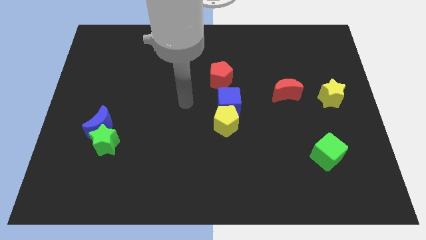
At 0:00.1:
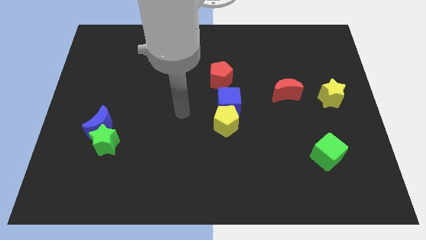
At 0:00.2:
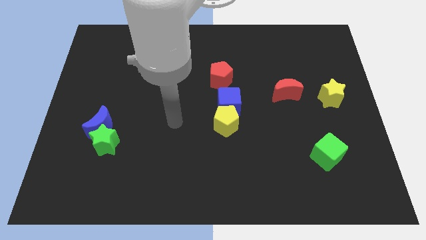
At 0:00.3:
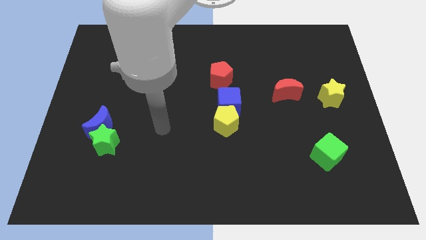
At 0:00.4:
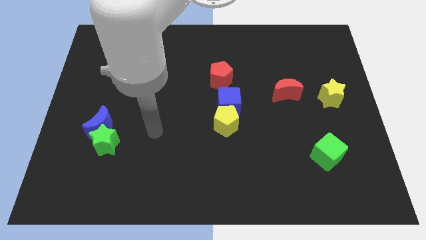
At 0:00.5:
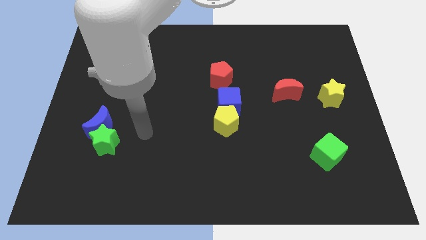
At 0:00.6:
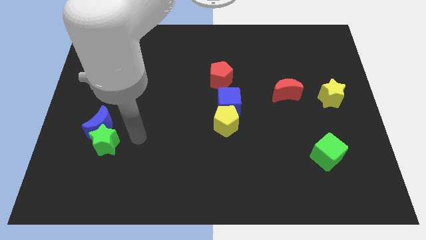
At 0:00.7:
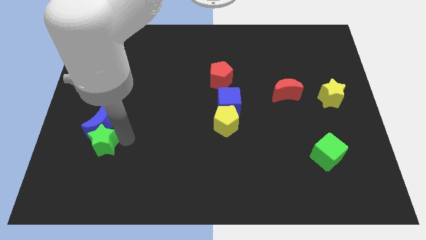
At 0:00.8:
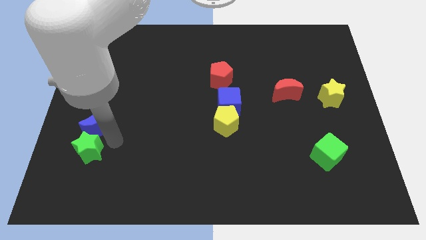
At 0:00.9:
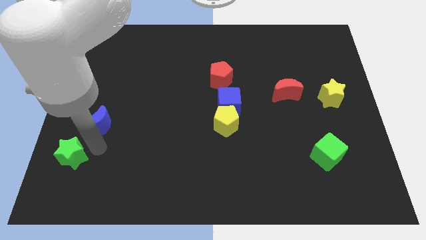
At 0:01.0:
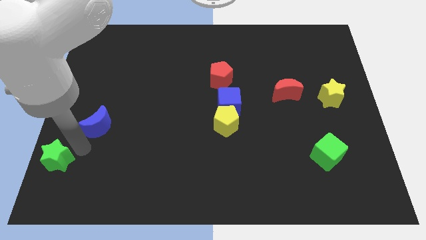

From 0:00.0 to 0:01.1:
move the blue moon away from the green star

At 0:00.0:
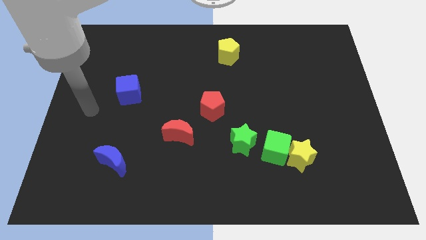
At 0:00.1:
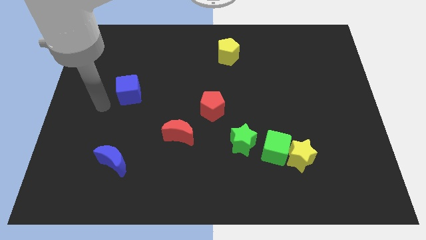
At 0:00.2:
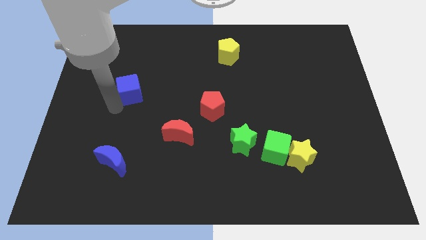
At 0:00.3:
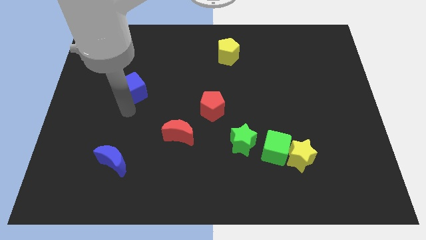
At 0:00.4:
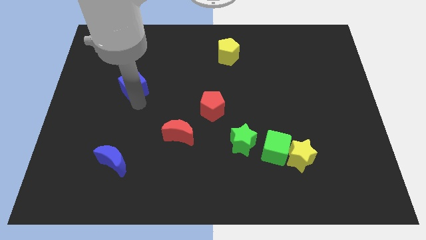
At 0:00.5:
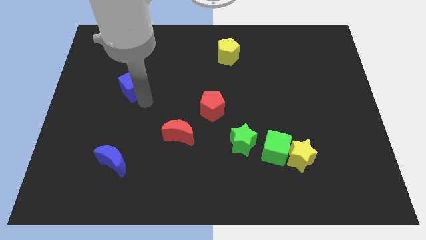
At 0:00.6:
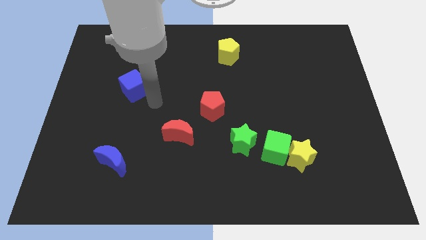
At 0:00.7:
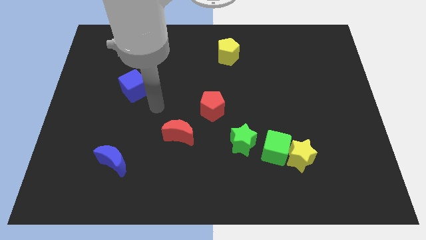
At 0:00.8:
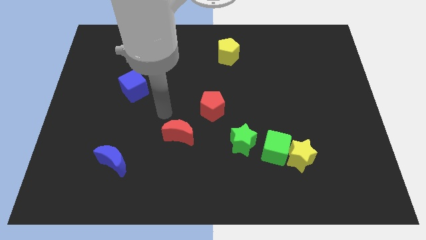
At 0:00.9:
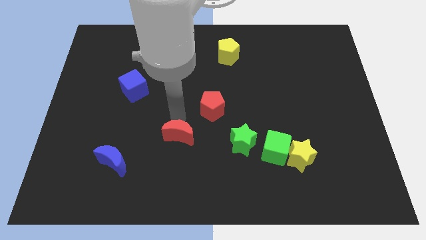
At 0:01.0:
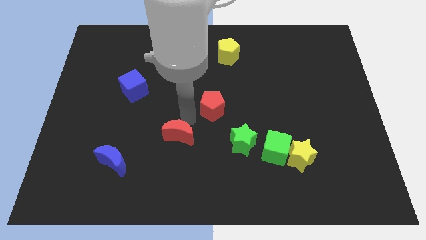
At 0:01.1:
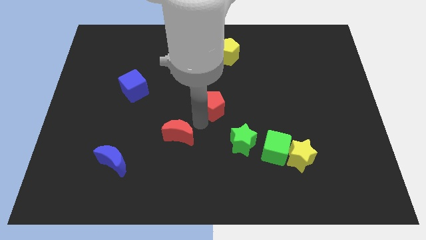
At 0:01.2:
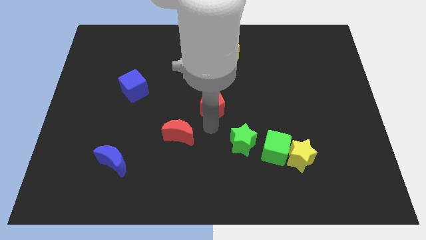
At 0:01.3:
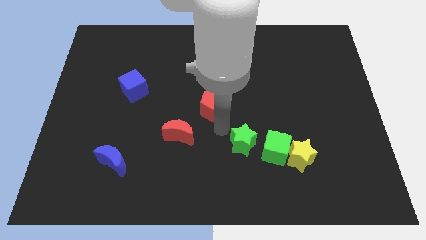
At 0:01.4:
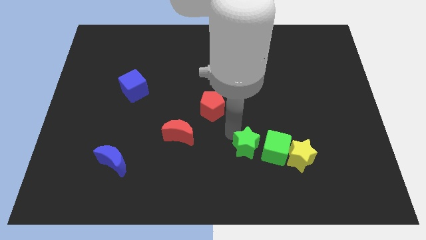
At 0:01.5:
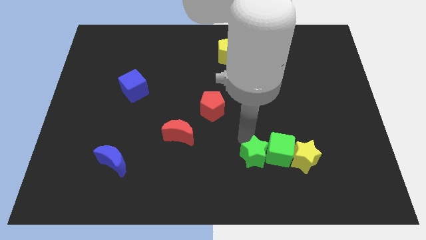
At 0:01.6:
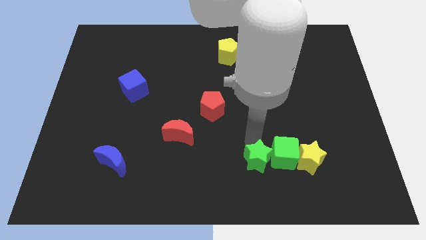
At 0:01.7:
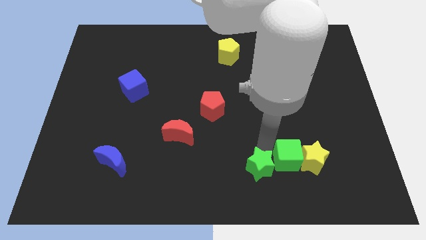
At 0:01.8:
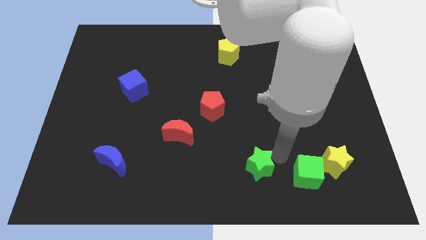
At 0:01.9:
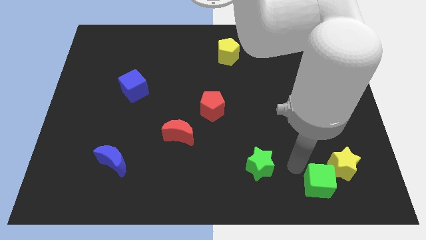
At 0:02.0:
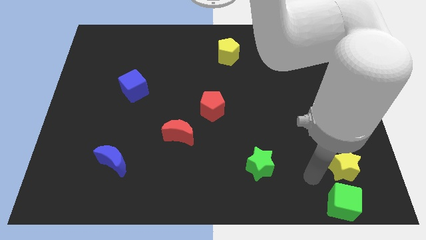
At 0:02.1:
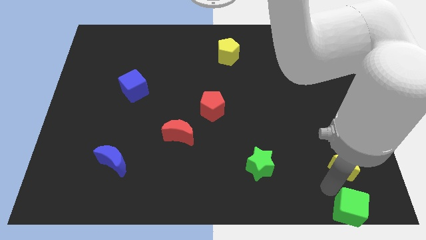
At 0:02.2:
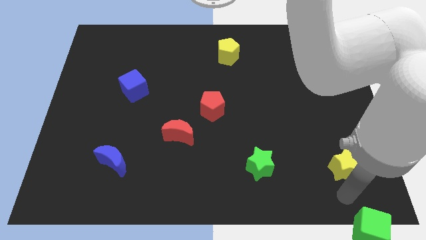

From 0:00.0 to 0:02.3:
move the yellow star away from the green cube

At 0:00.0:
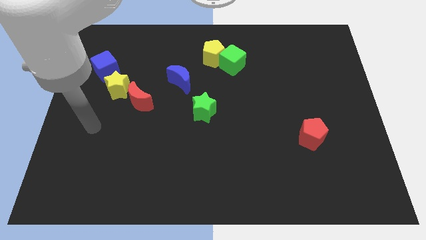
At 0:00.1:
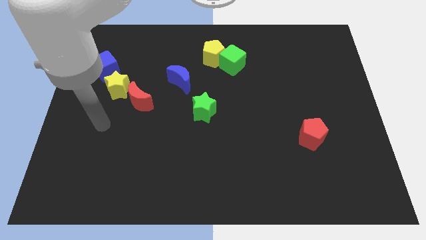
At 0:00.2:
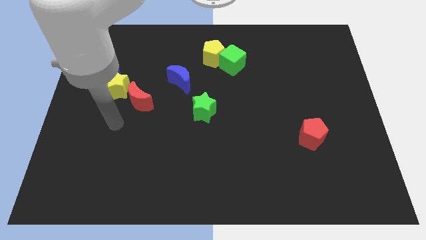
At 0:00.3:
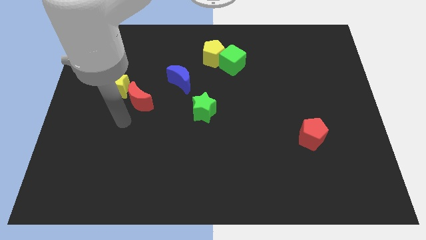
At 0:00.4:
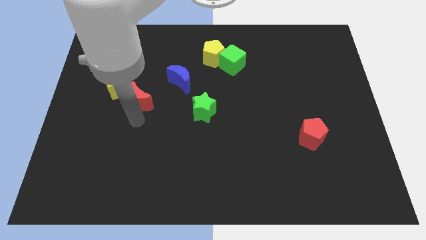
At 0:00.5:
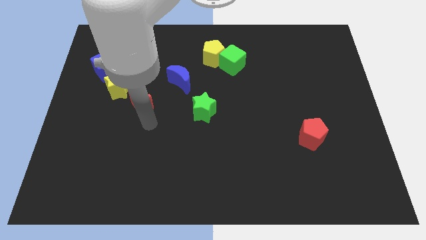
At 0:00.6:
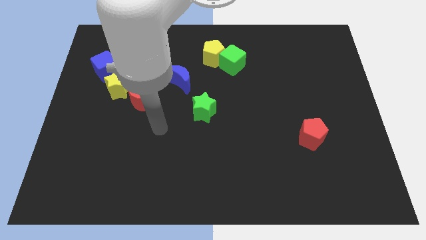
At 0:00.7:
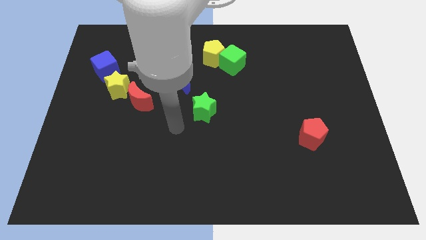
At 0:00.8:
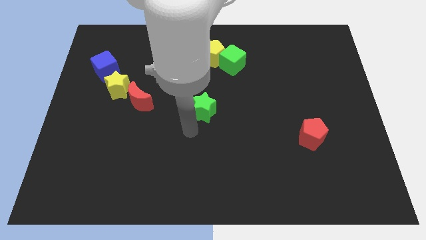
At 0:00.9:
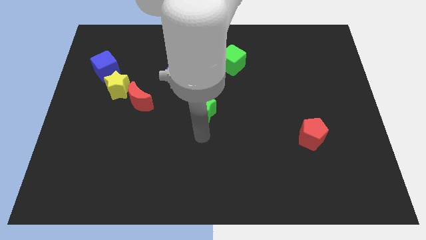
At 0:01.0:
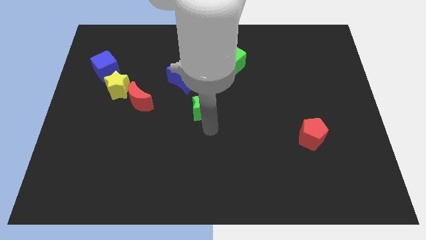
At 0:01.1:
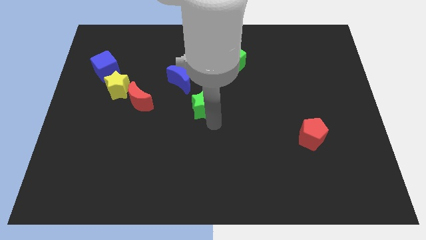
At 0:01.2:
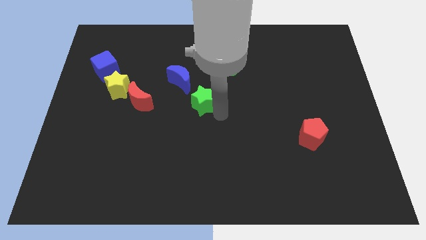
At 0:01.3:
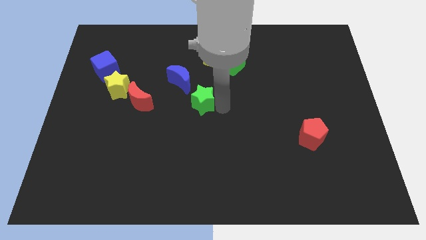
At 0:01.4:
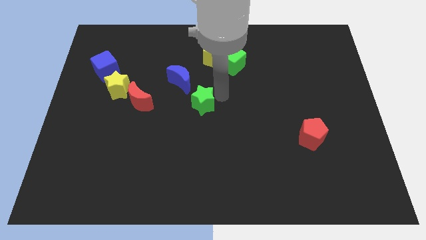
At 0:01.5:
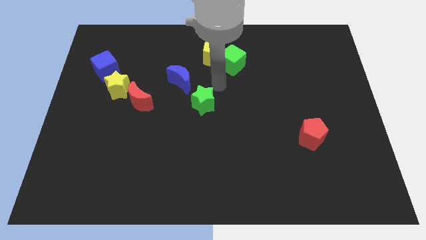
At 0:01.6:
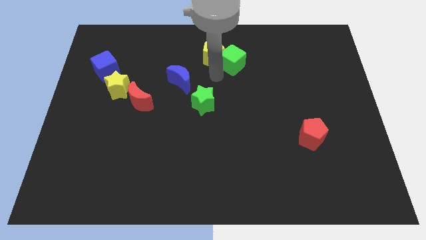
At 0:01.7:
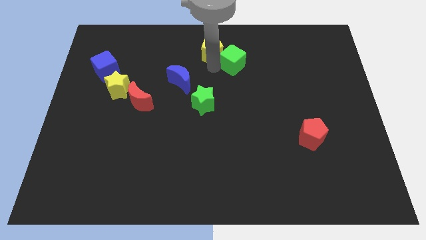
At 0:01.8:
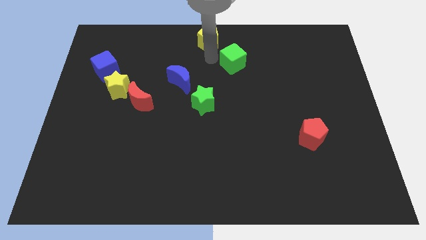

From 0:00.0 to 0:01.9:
pull the green cube apart from the yellow pentagon

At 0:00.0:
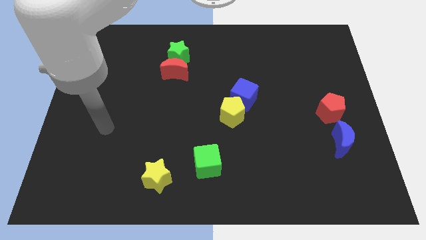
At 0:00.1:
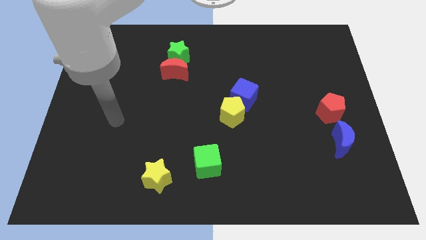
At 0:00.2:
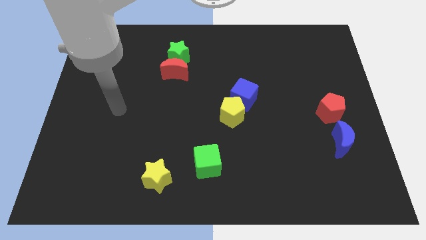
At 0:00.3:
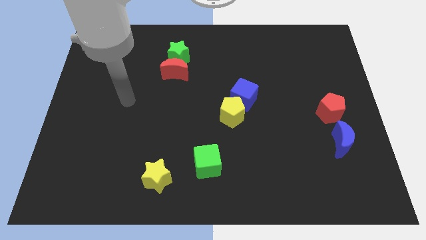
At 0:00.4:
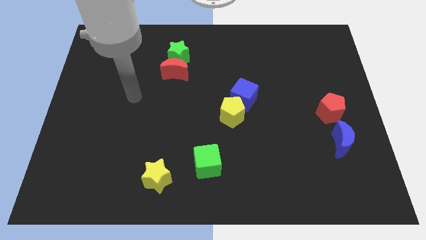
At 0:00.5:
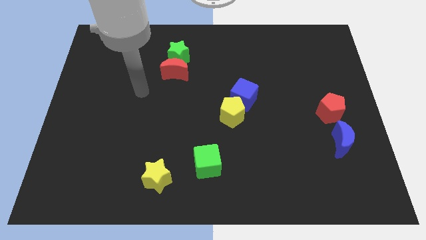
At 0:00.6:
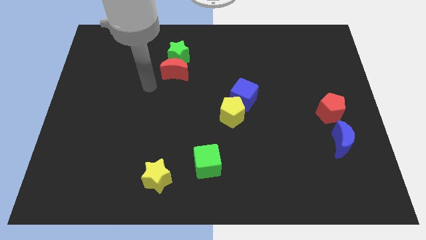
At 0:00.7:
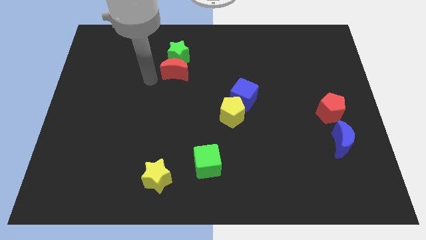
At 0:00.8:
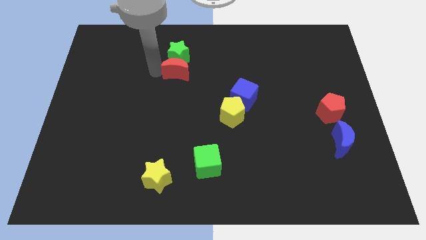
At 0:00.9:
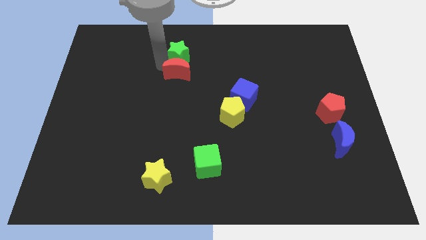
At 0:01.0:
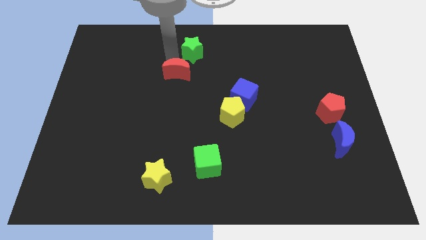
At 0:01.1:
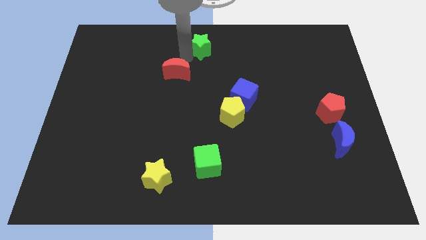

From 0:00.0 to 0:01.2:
separate the red moon from the green star

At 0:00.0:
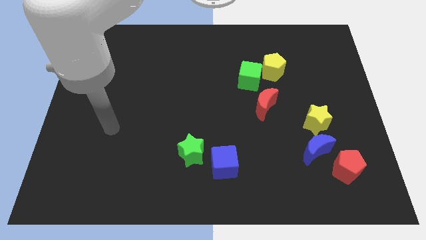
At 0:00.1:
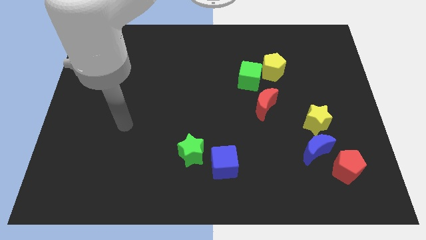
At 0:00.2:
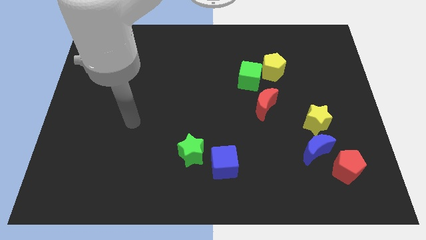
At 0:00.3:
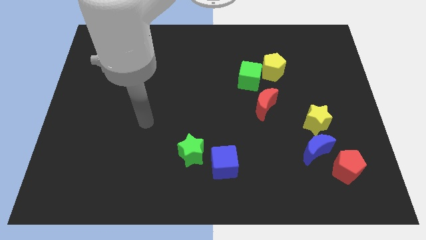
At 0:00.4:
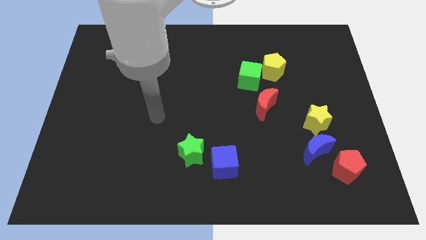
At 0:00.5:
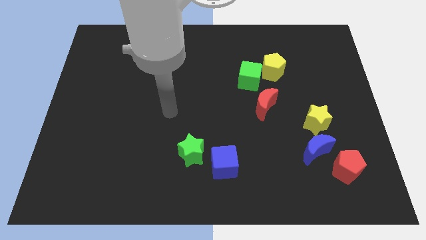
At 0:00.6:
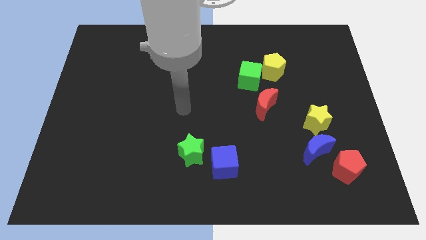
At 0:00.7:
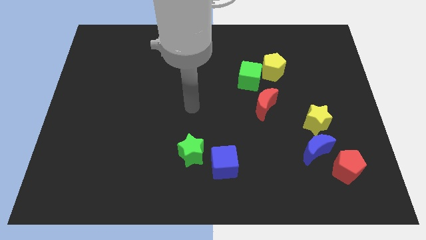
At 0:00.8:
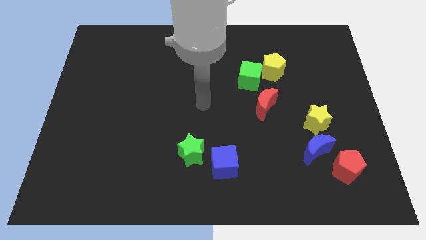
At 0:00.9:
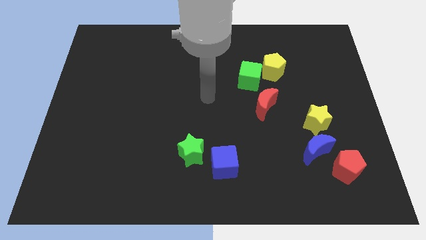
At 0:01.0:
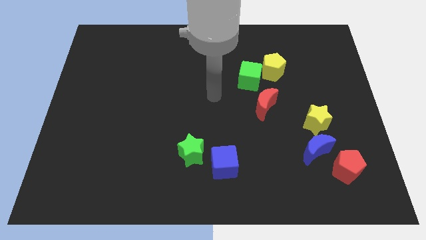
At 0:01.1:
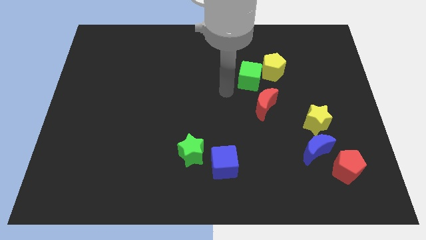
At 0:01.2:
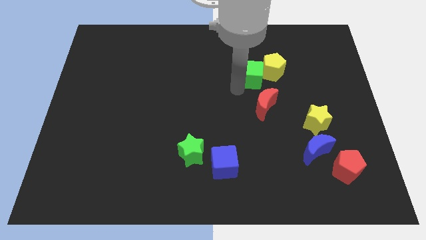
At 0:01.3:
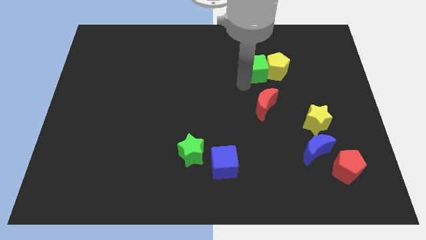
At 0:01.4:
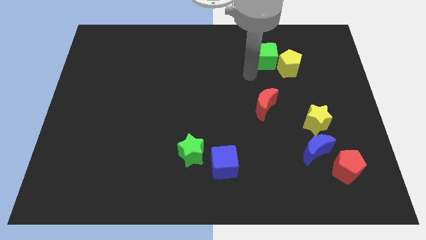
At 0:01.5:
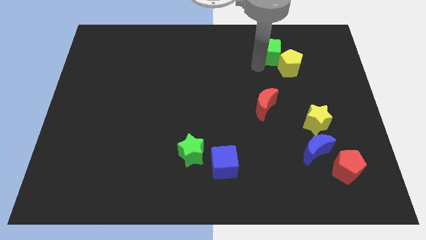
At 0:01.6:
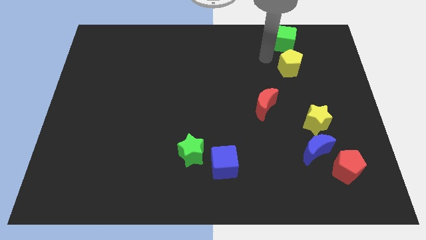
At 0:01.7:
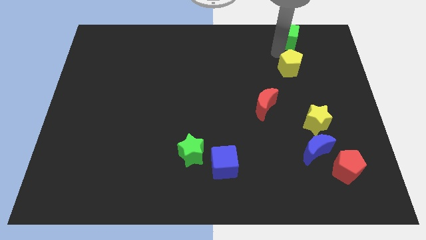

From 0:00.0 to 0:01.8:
separate the yellow pentagon from the green cube

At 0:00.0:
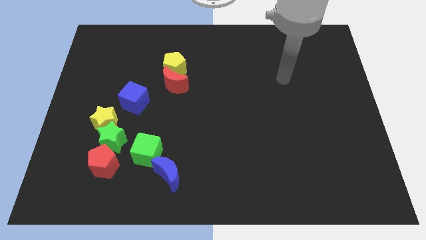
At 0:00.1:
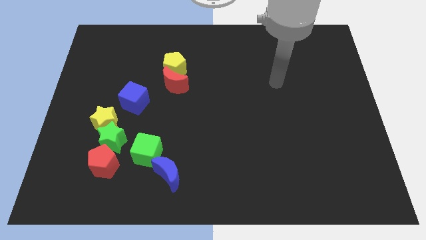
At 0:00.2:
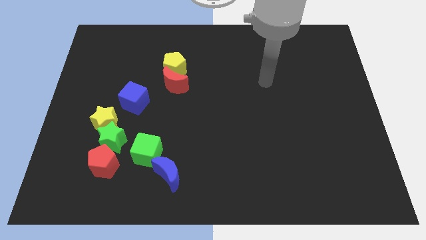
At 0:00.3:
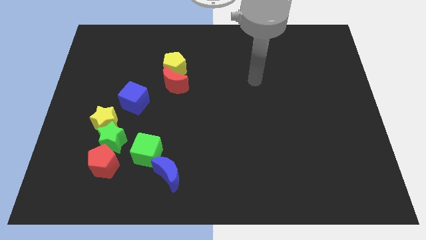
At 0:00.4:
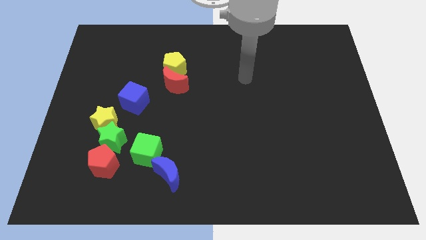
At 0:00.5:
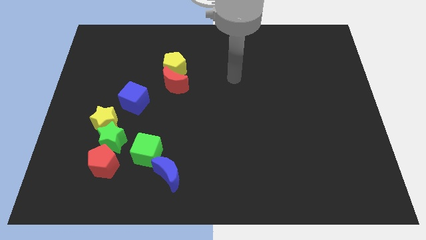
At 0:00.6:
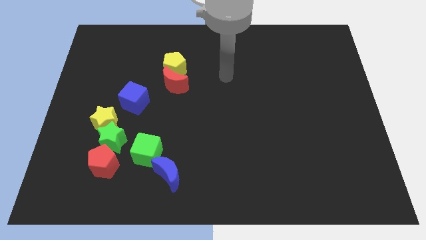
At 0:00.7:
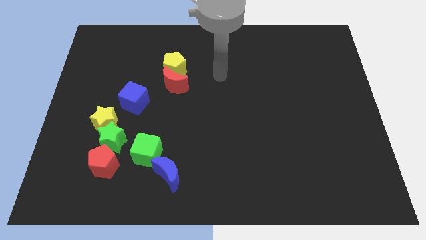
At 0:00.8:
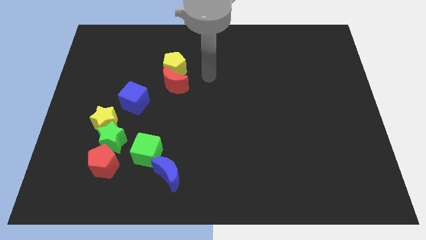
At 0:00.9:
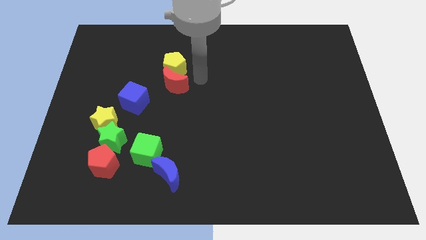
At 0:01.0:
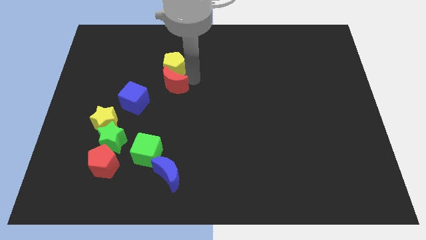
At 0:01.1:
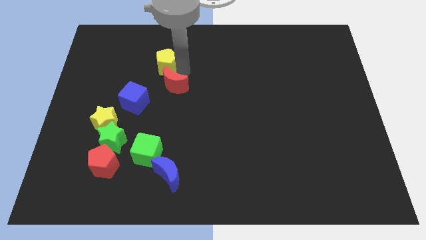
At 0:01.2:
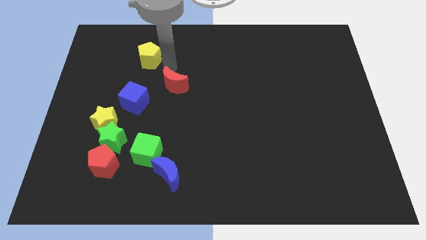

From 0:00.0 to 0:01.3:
pull the red moon apart from the yellow pentagon
